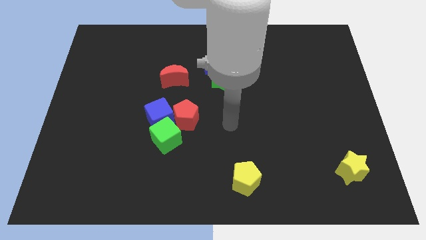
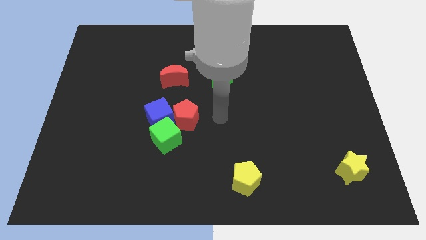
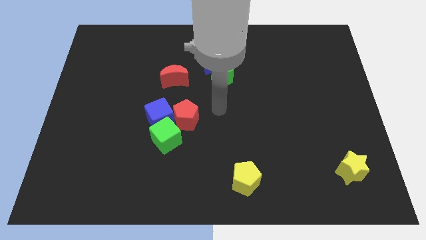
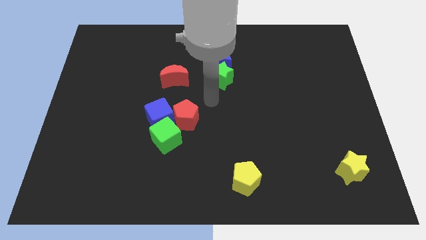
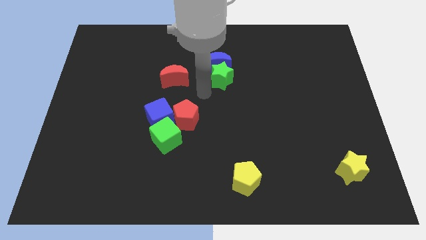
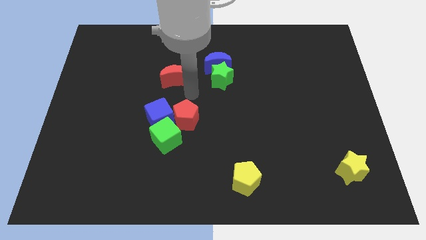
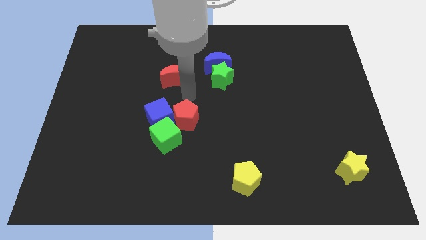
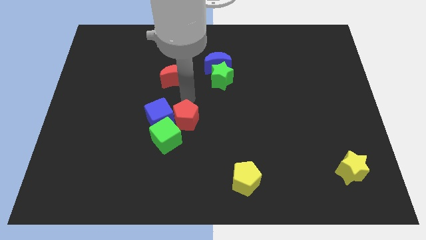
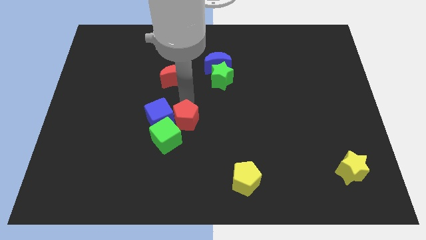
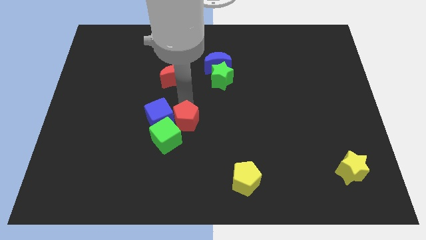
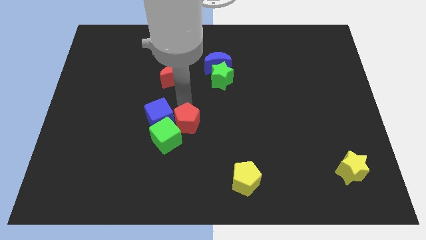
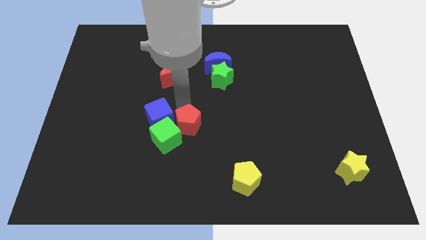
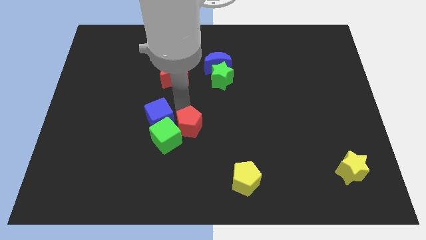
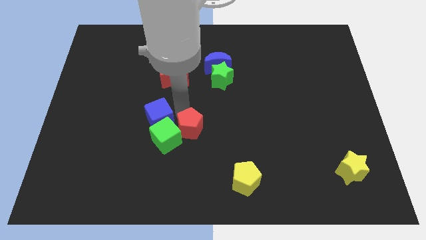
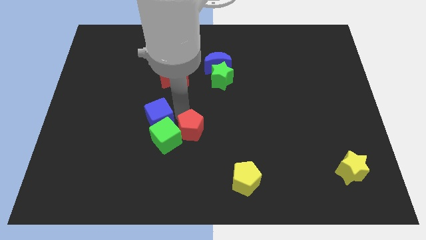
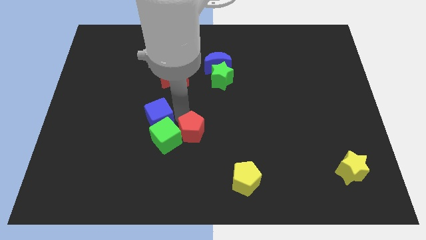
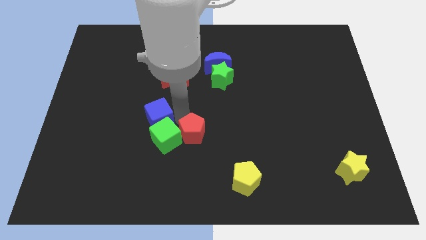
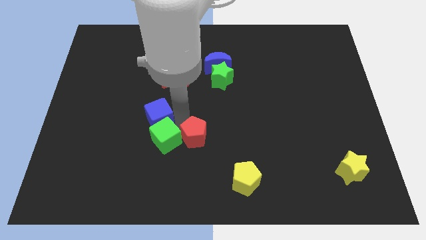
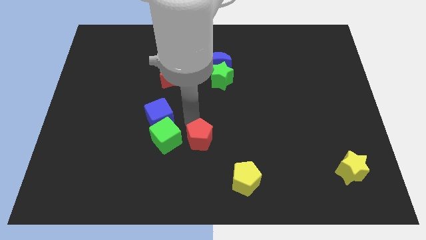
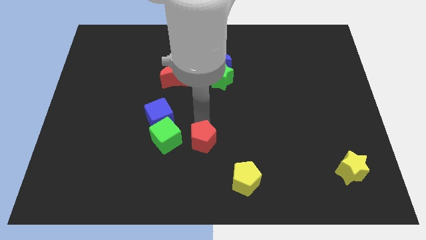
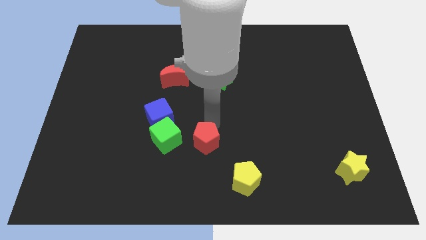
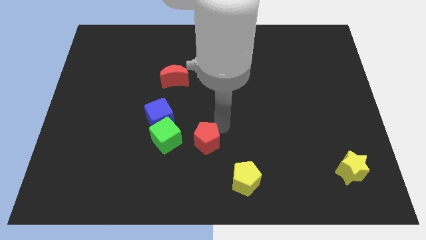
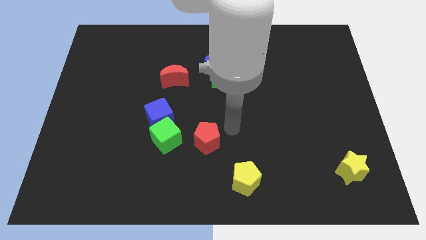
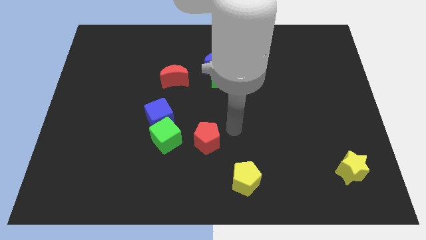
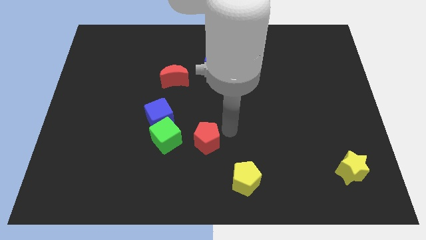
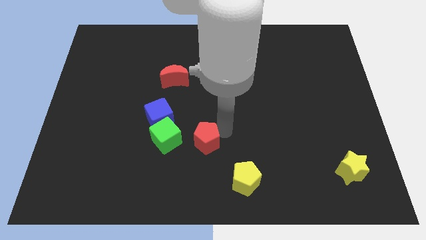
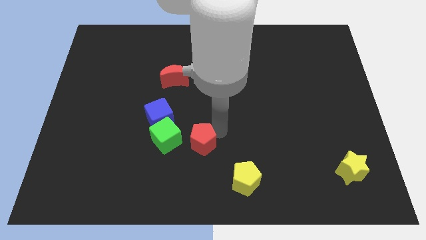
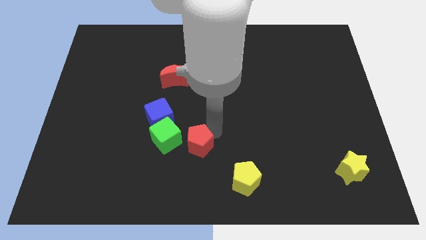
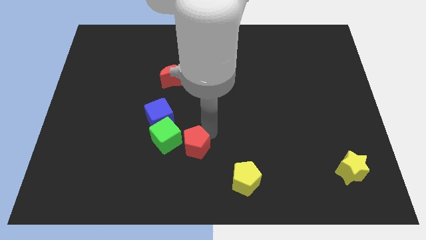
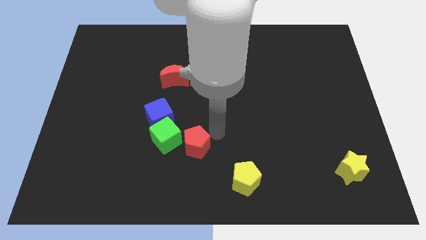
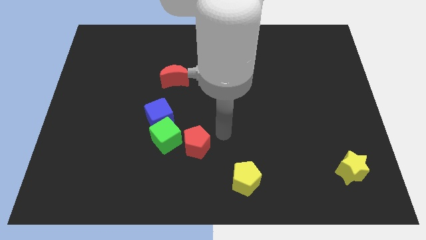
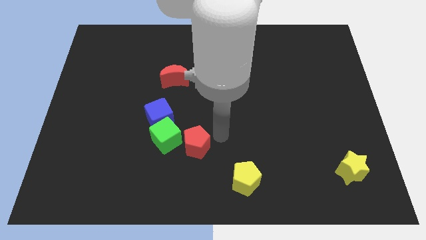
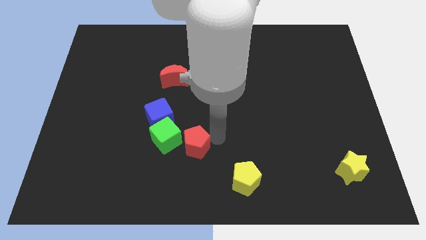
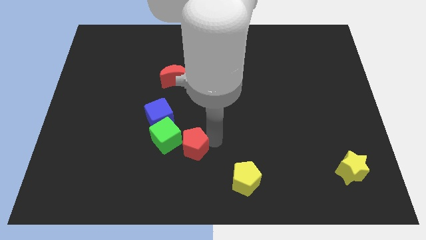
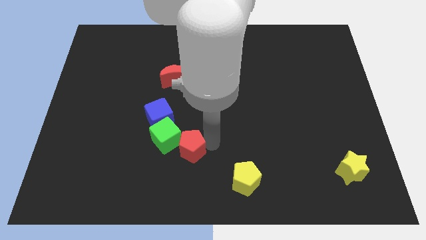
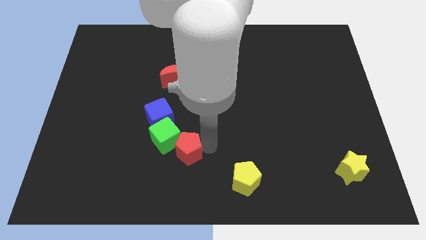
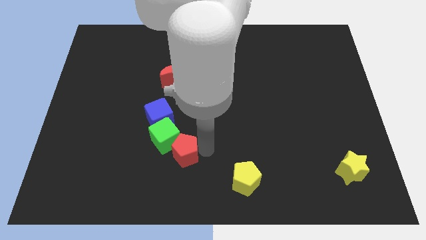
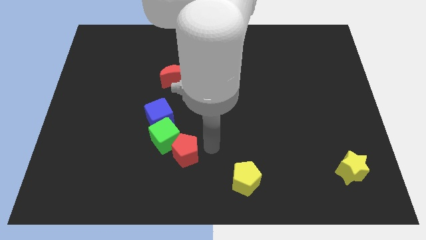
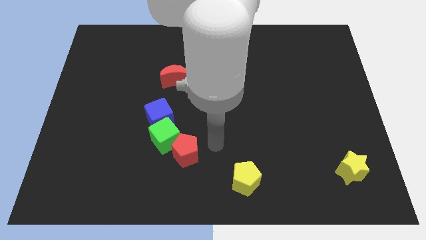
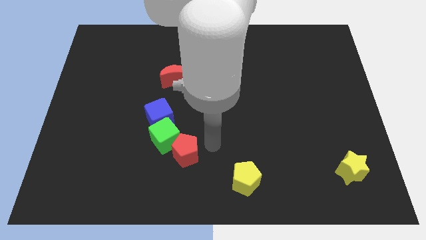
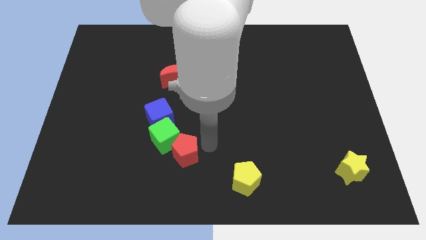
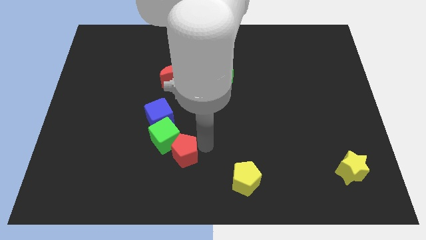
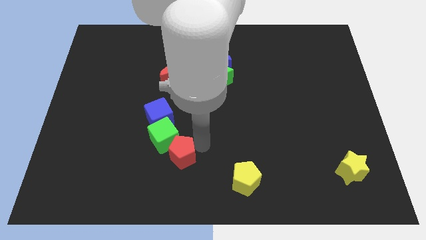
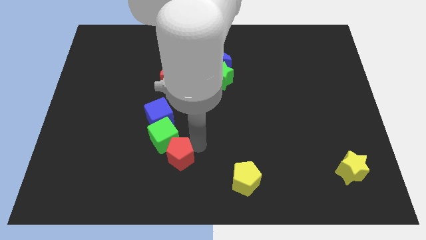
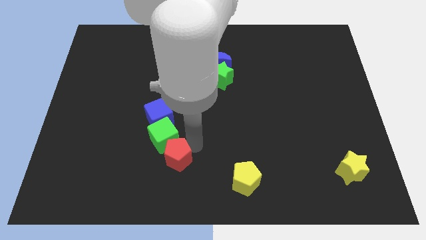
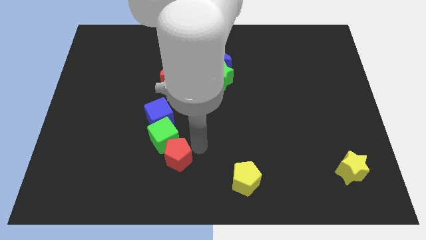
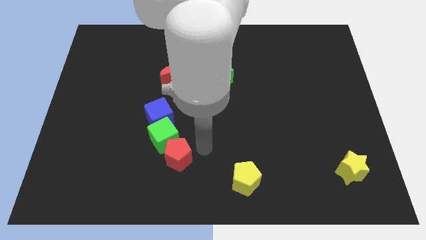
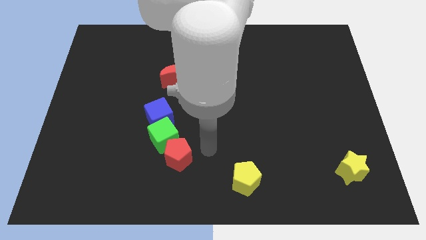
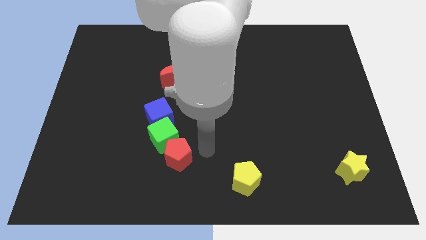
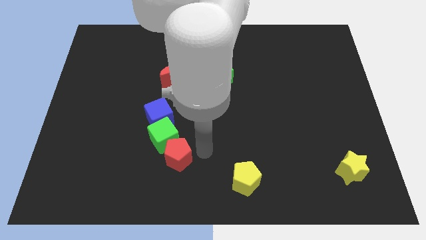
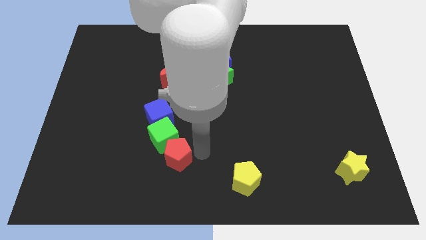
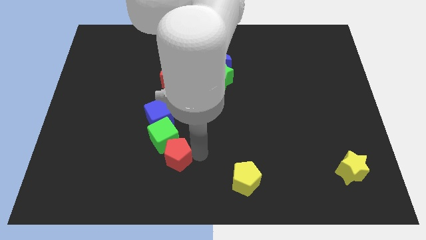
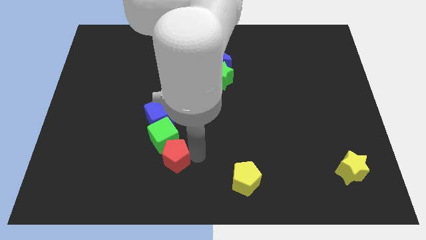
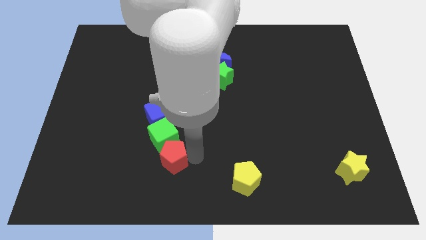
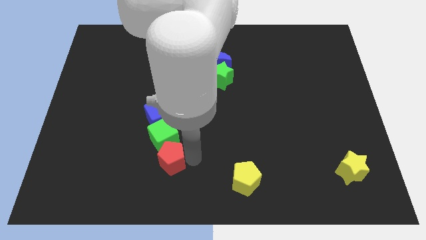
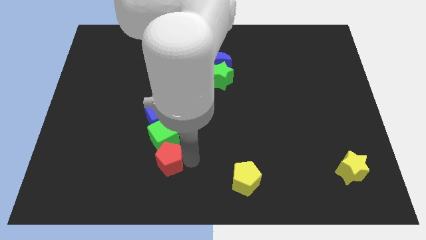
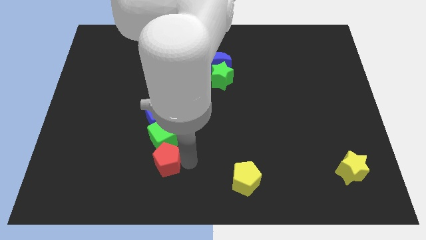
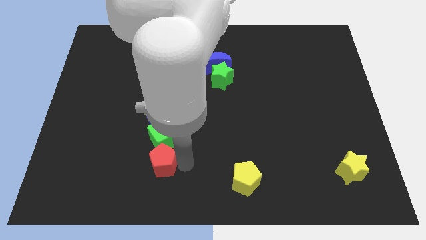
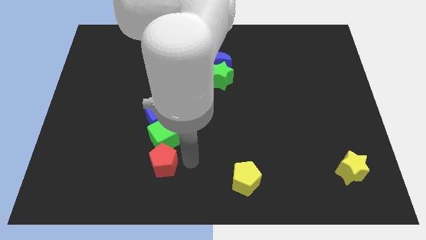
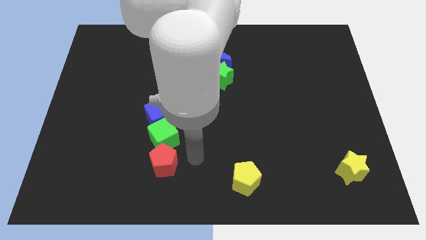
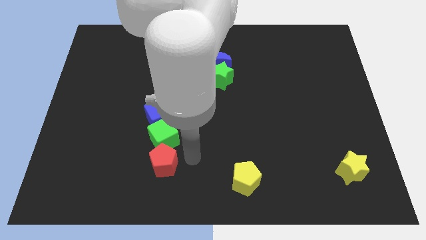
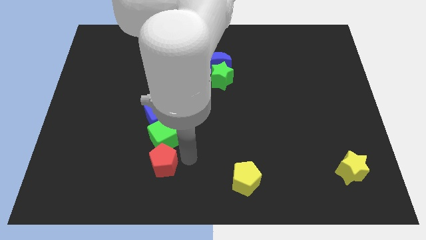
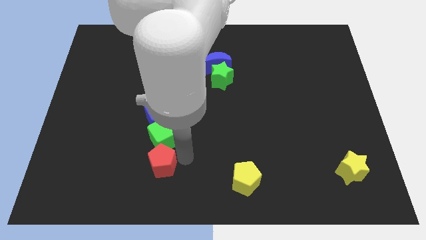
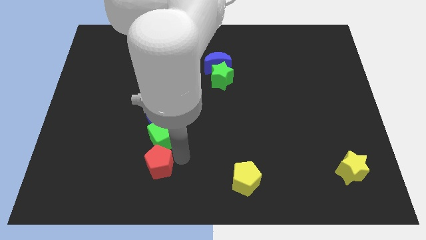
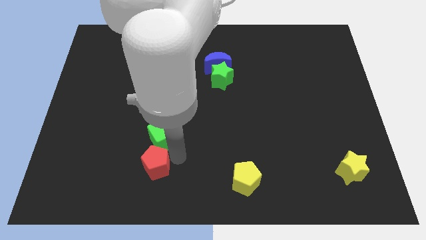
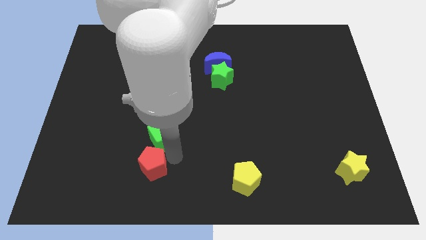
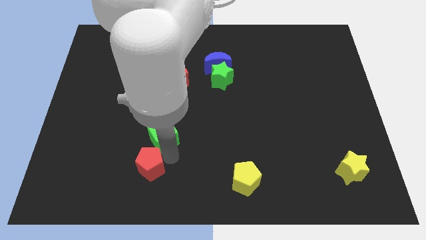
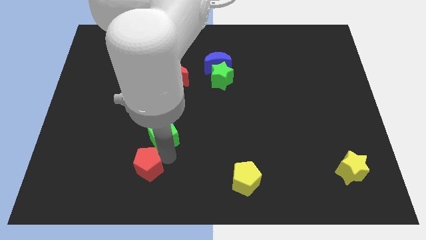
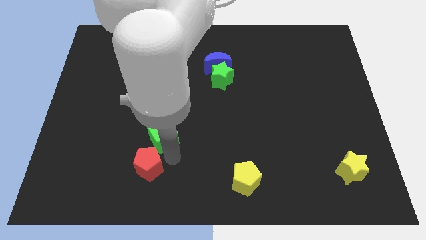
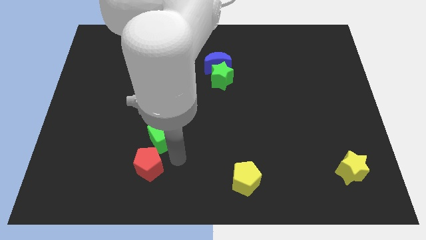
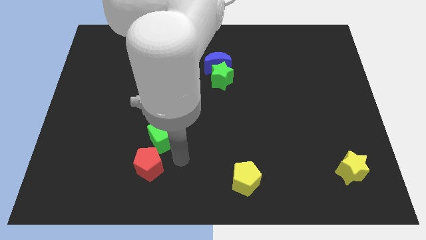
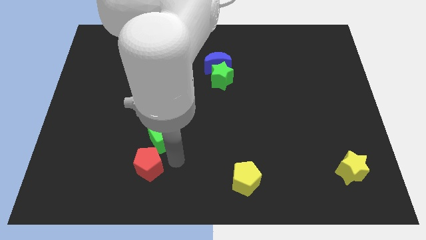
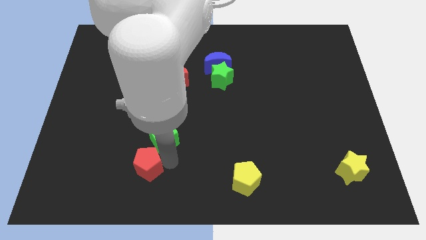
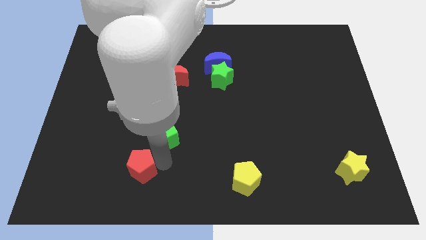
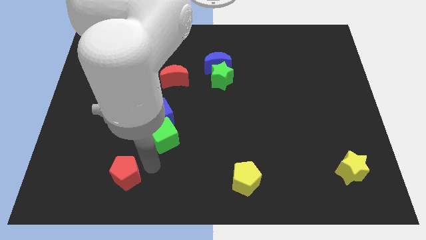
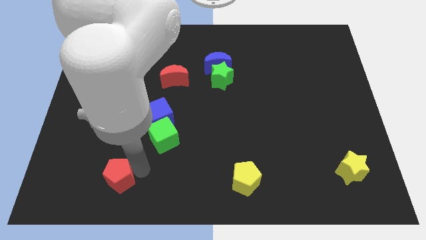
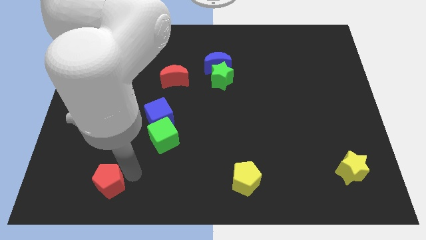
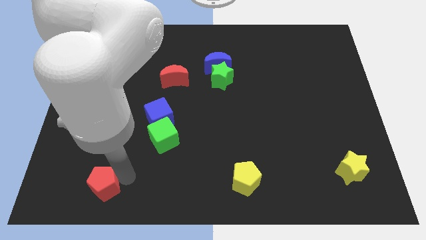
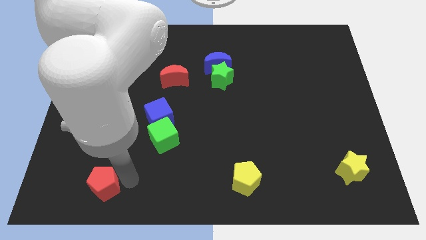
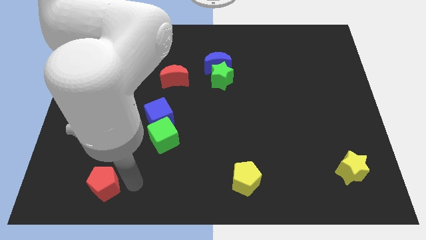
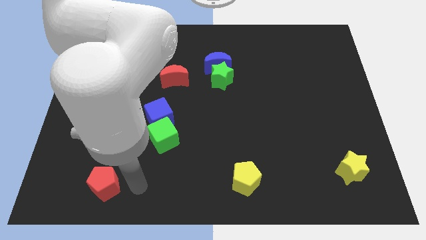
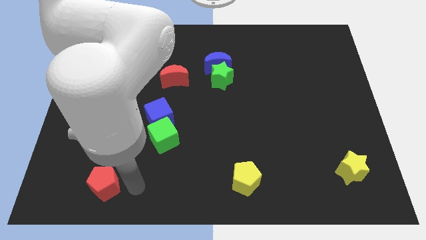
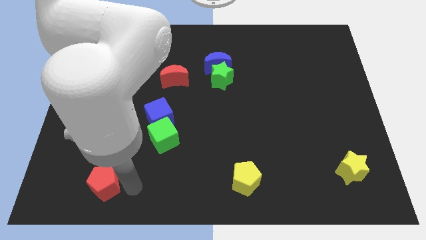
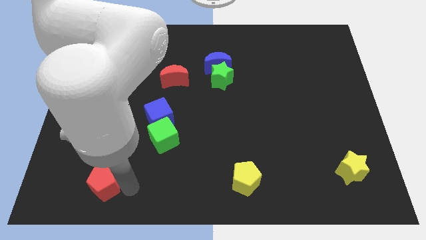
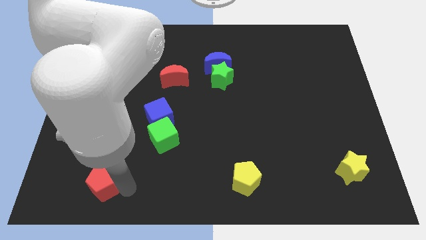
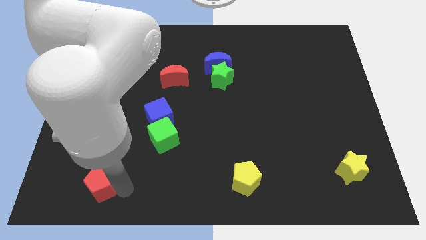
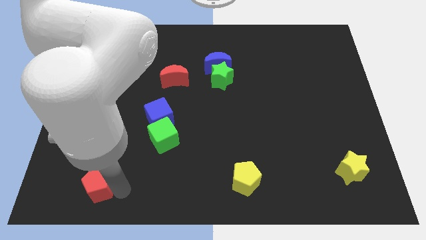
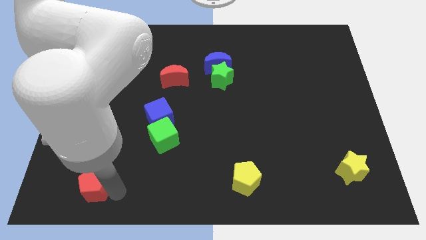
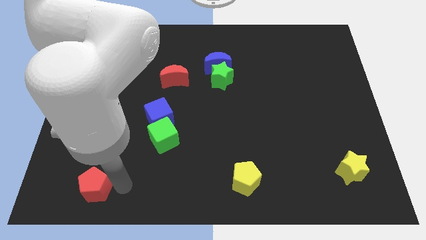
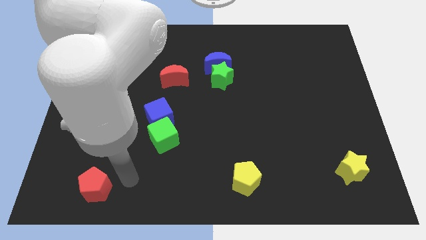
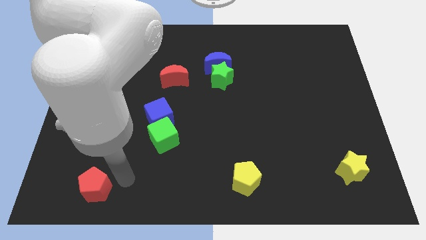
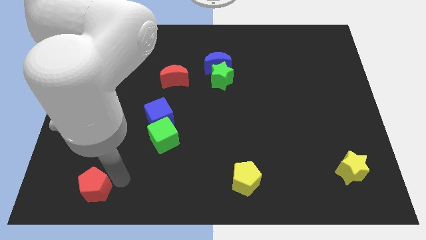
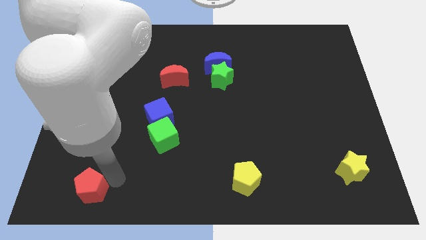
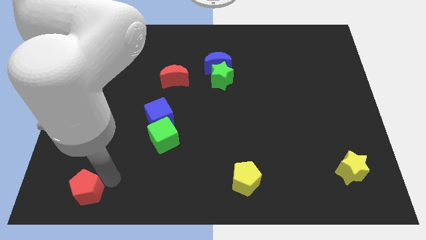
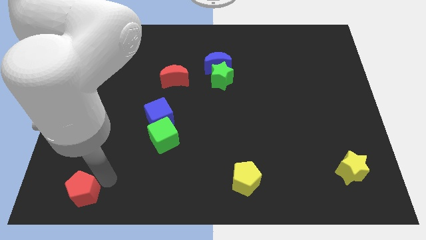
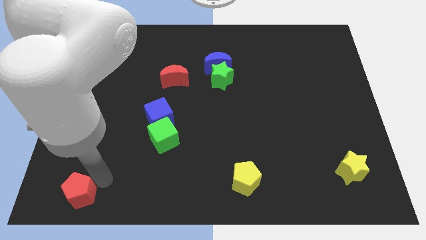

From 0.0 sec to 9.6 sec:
put the red pentagon to the bottom left of the board
